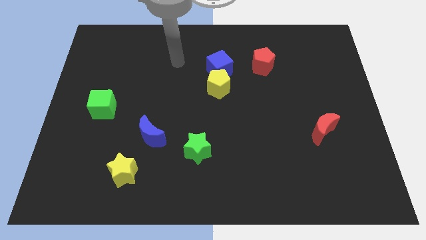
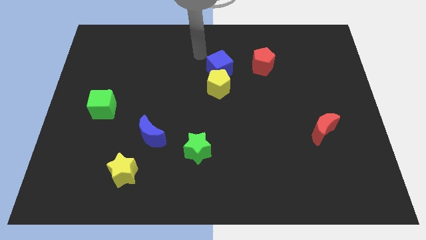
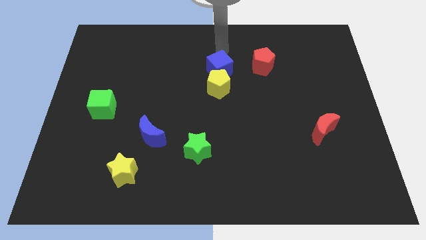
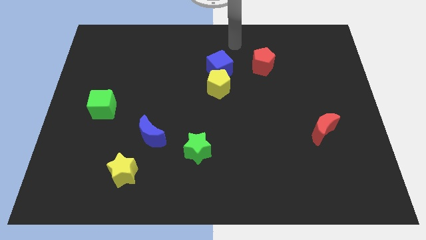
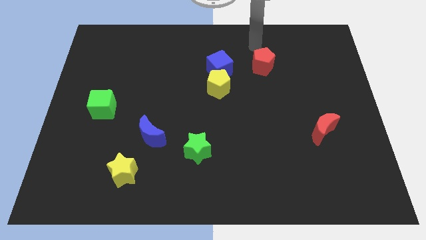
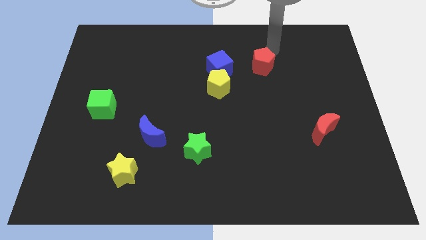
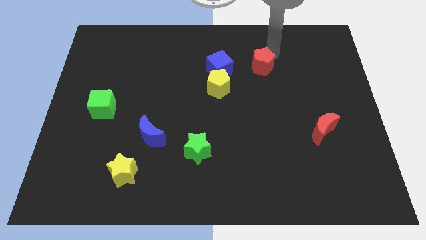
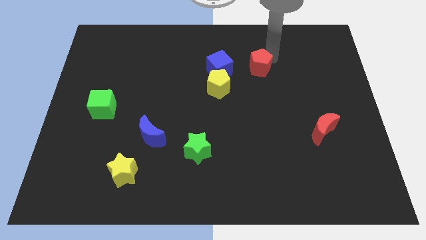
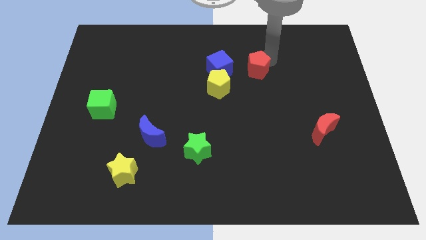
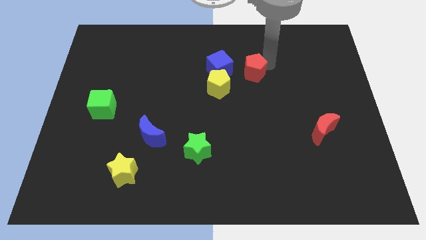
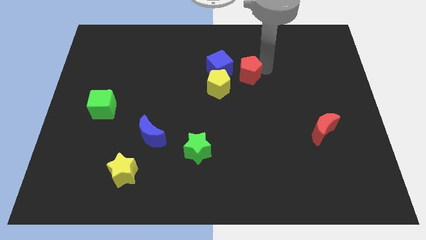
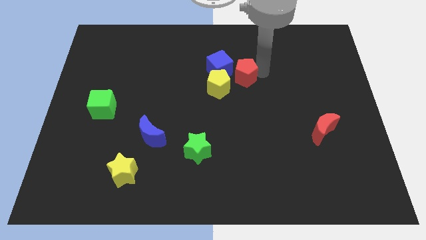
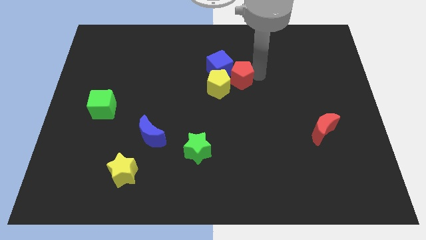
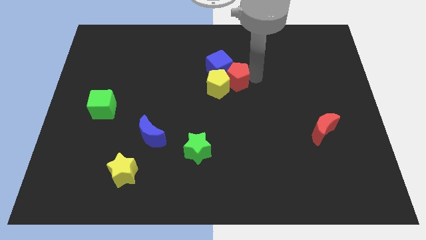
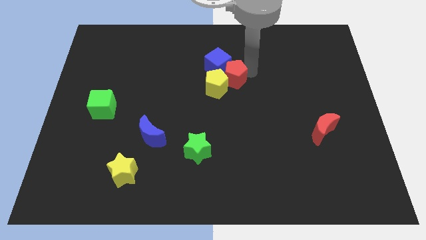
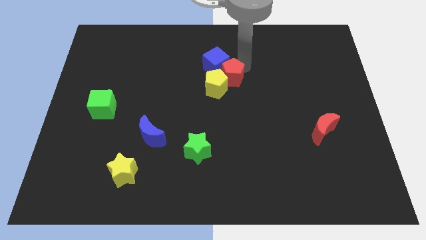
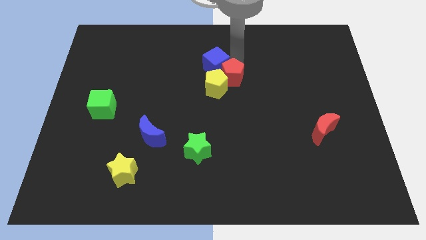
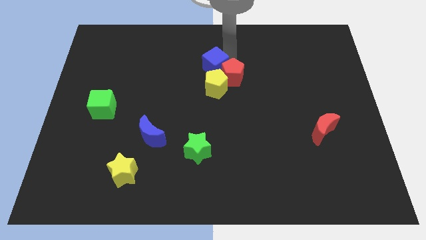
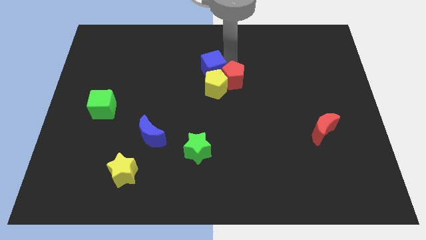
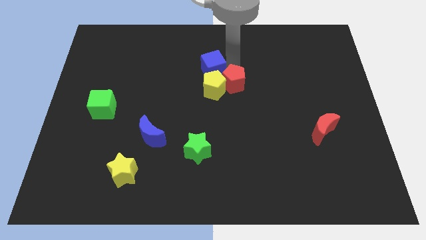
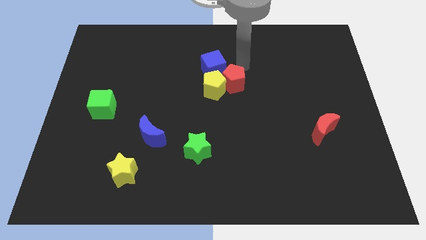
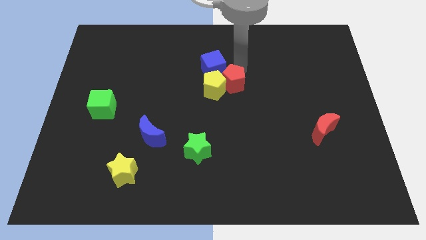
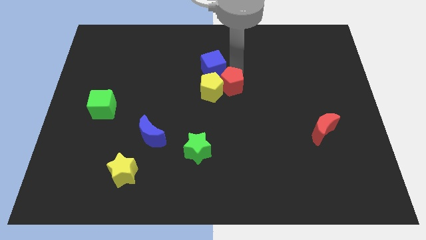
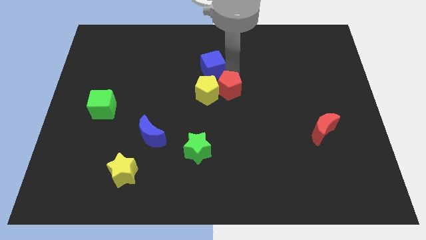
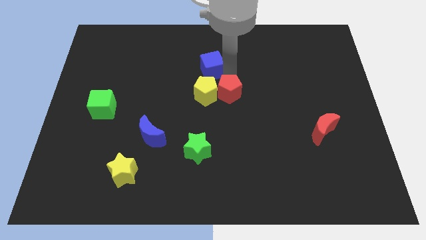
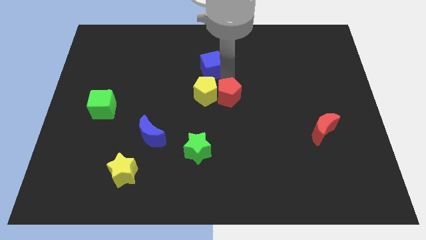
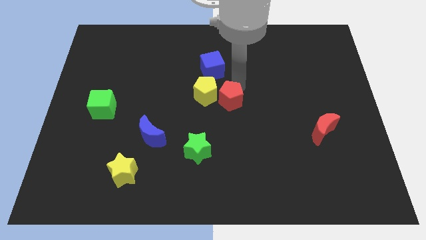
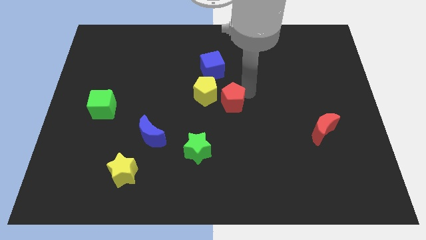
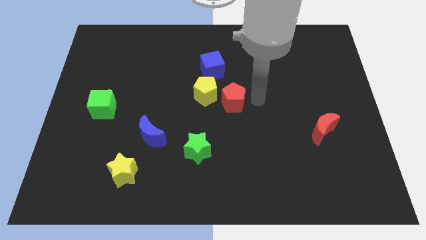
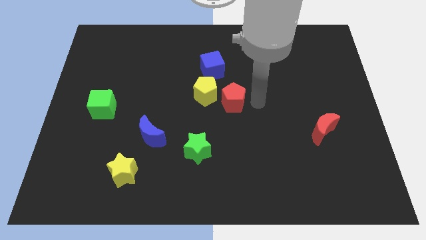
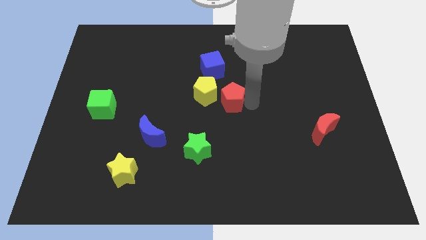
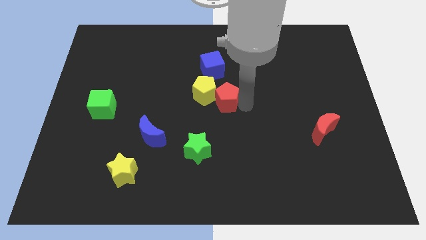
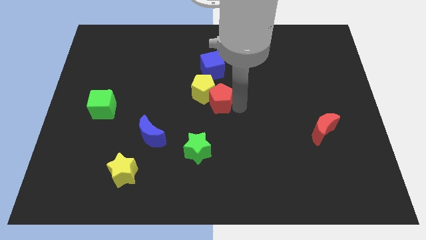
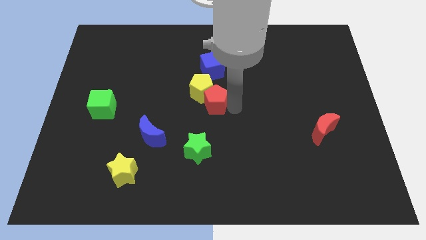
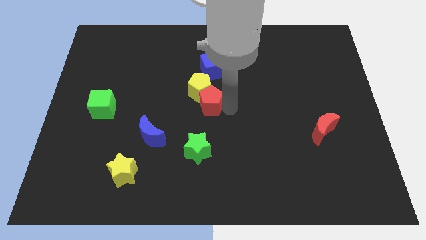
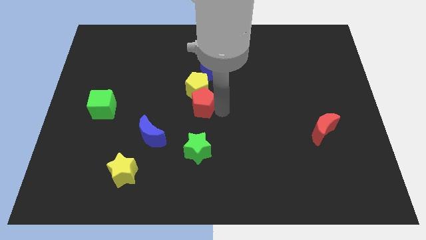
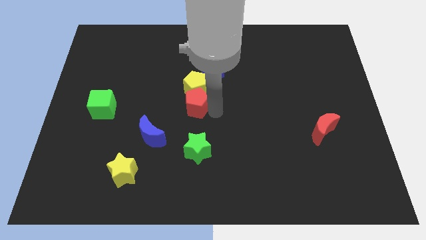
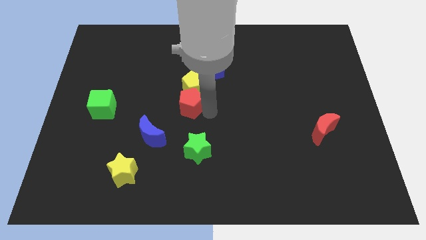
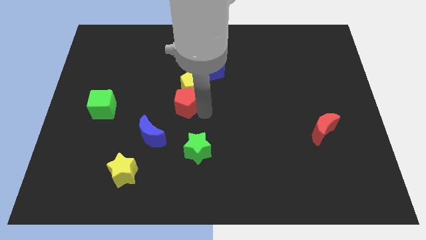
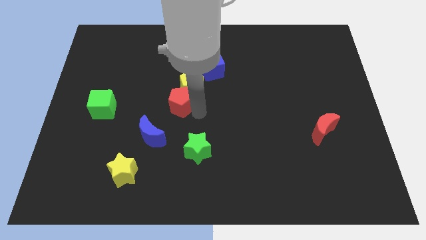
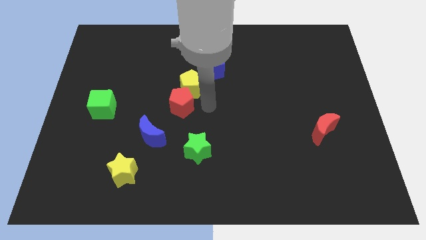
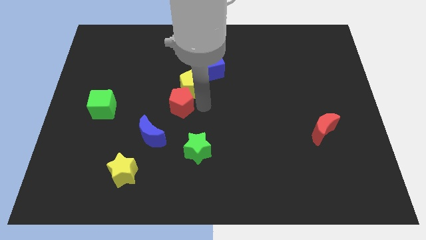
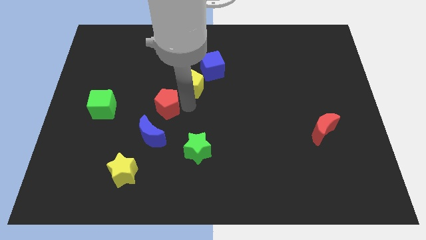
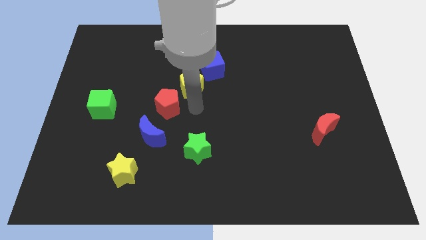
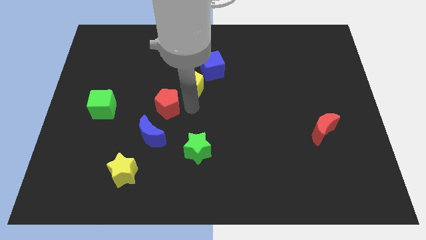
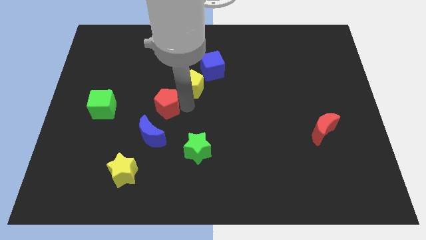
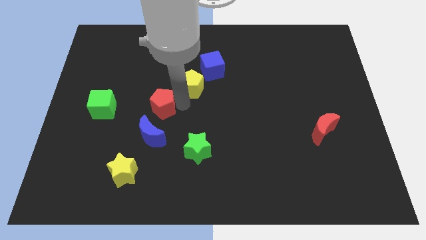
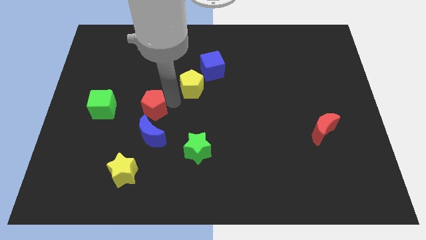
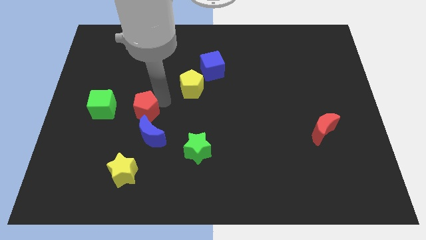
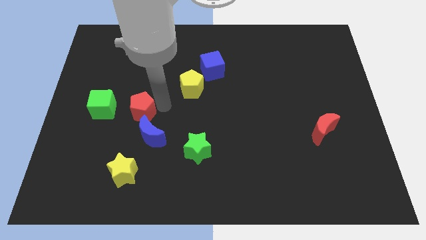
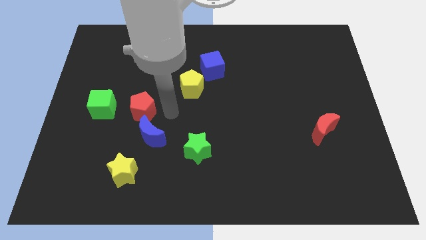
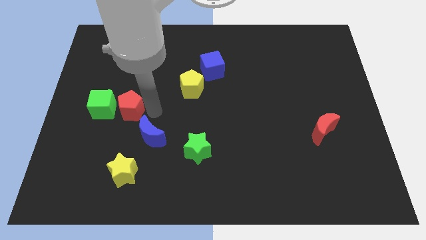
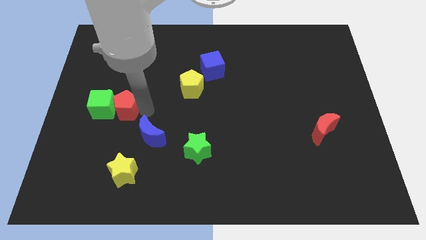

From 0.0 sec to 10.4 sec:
slide the red pentagon next to the green cube

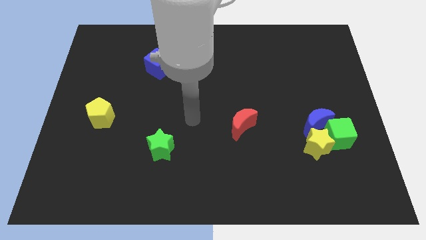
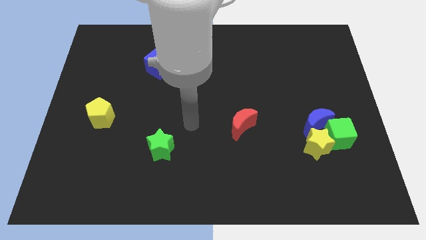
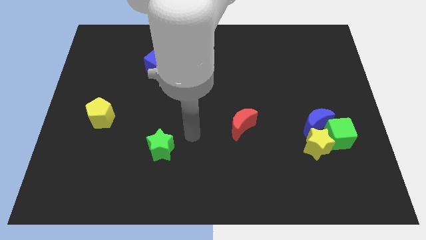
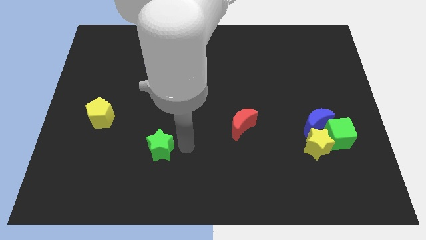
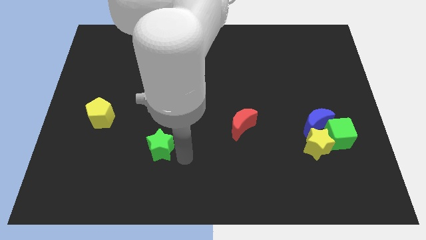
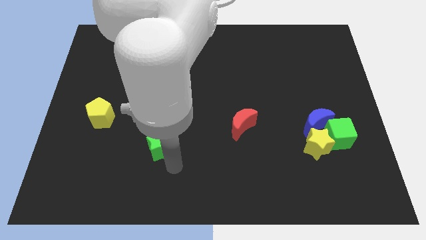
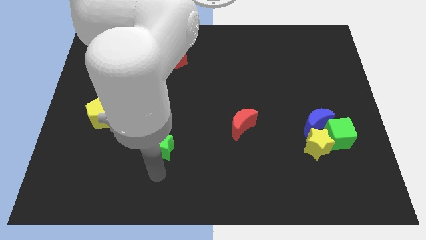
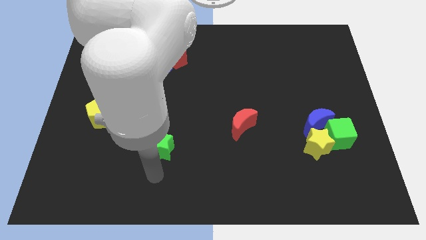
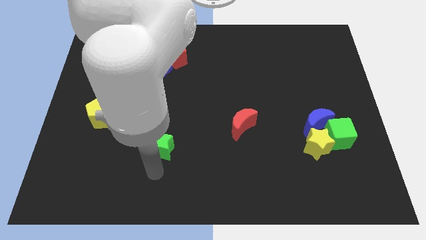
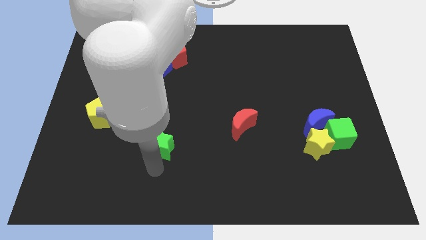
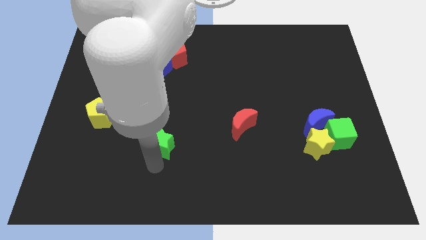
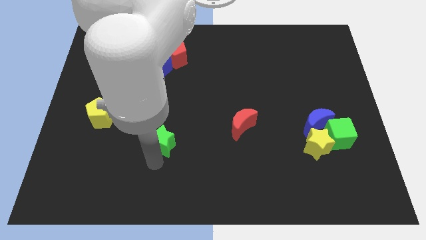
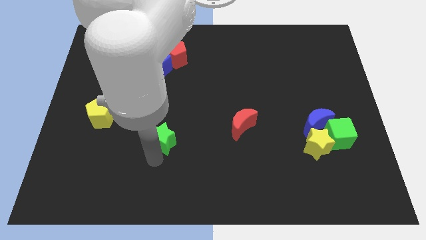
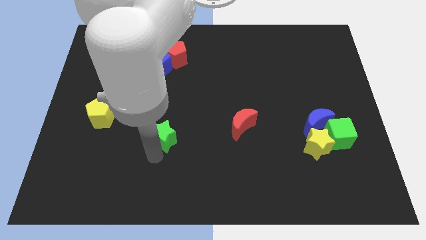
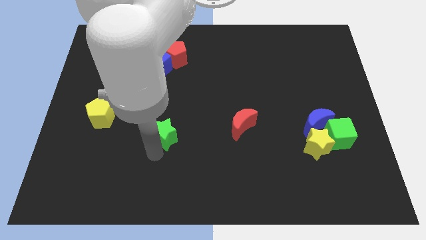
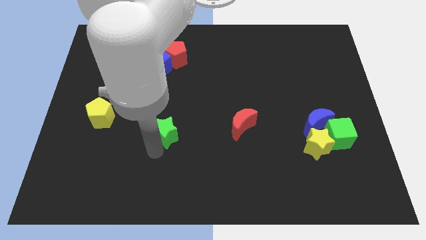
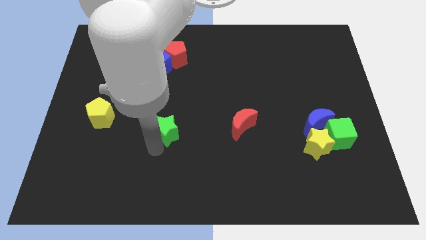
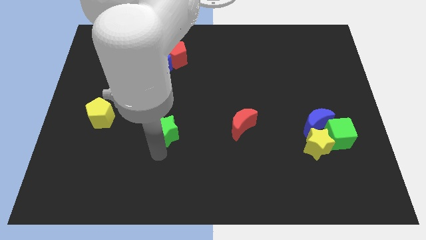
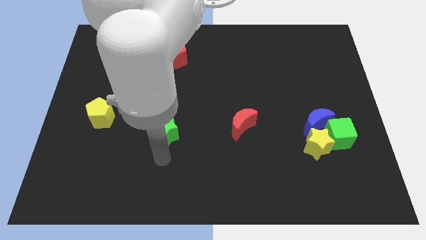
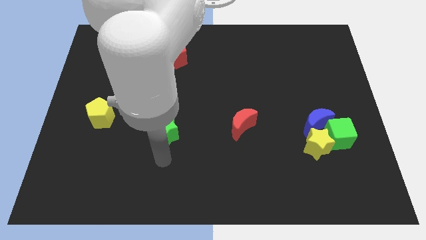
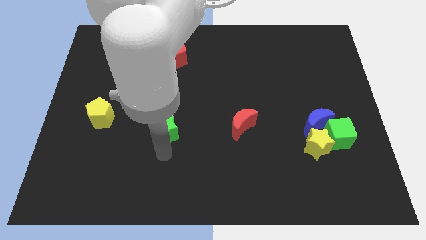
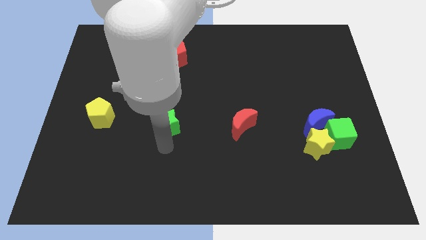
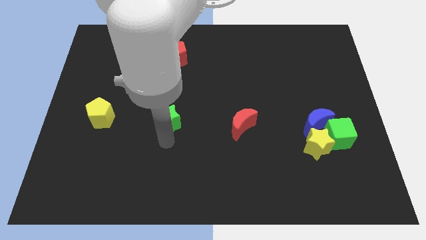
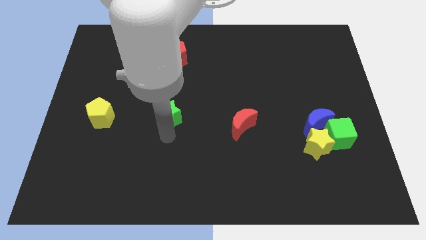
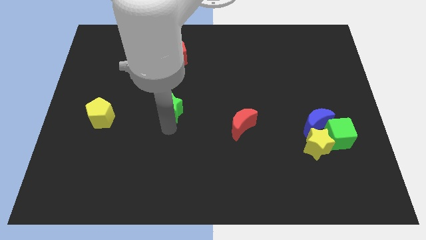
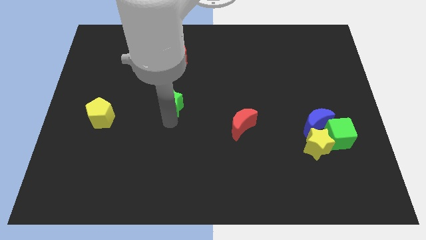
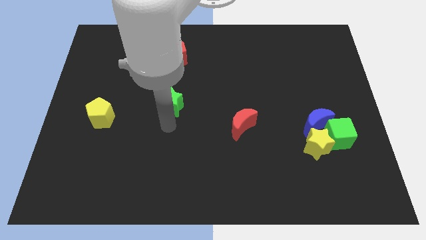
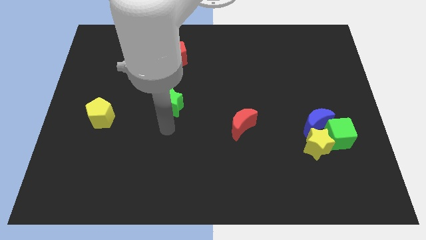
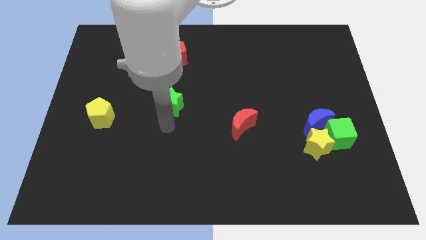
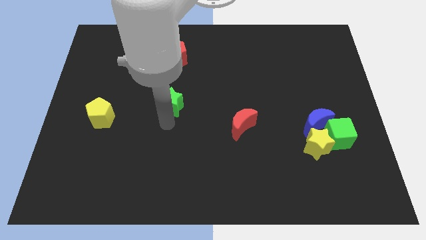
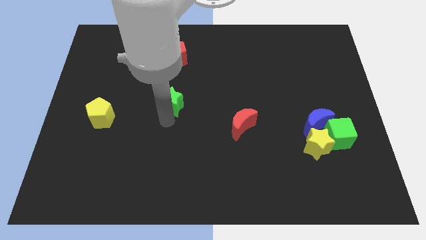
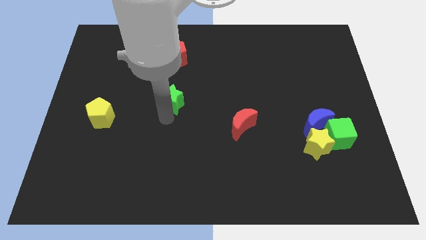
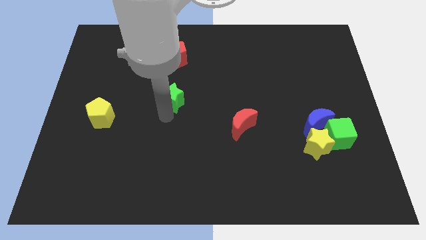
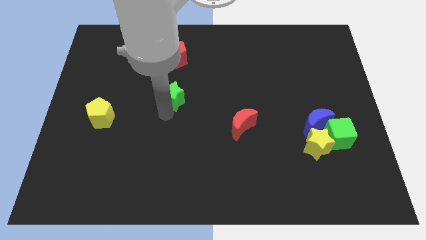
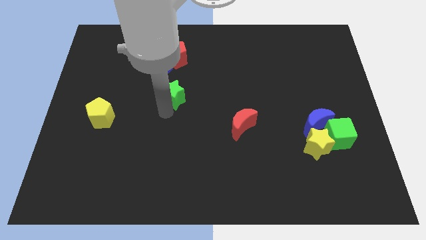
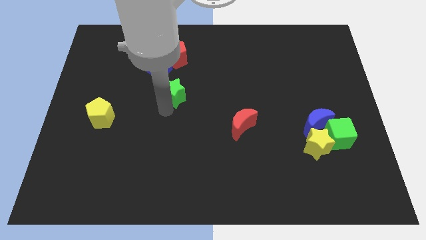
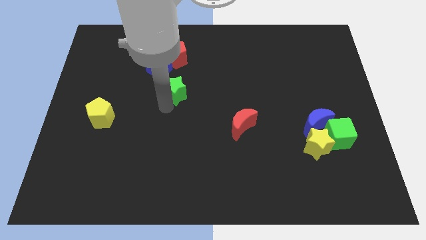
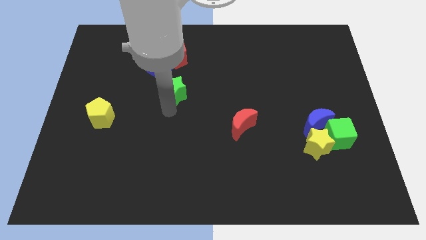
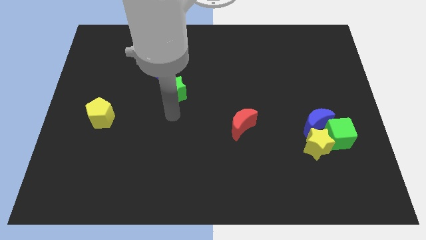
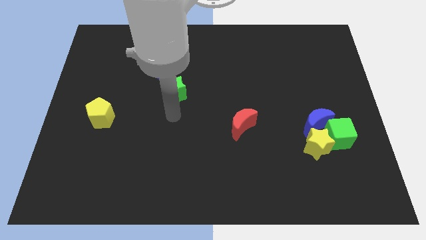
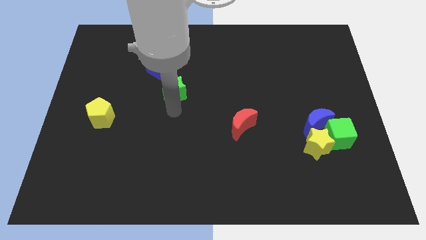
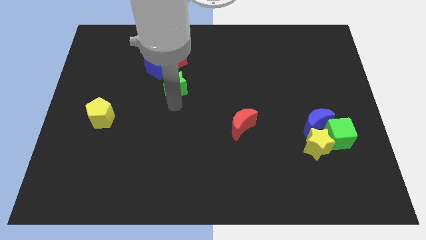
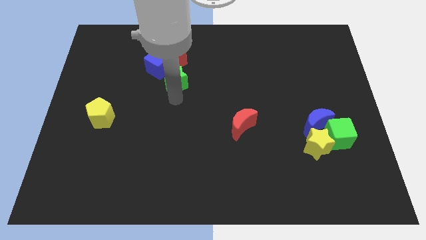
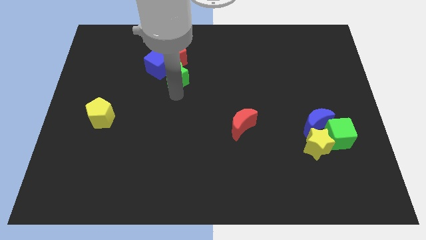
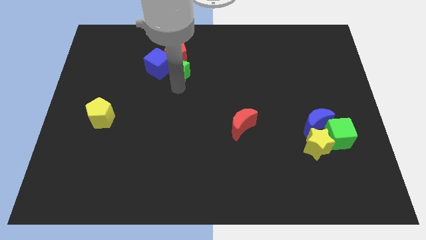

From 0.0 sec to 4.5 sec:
push the green star towards the red pentagon
